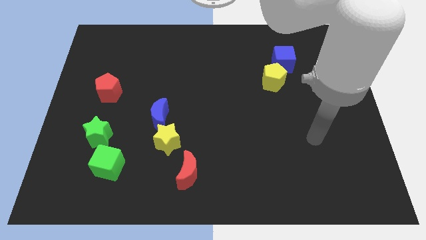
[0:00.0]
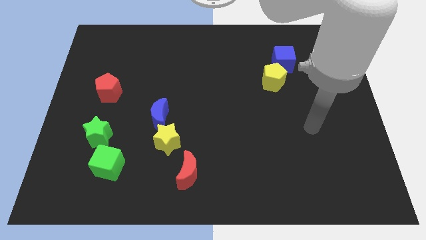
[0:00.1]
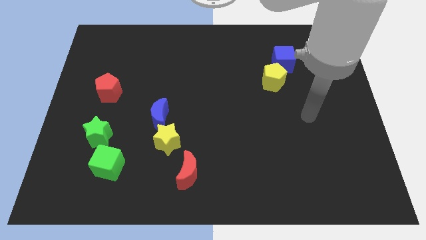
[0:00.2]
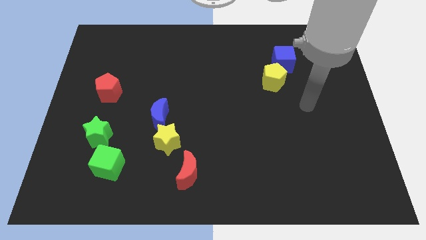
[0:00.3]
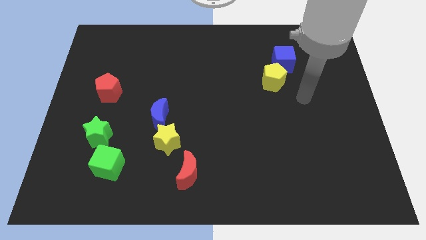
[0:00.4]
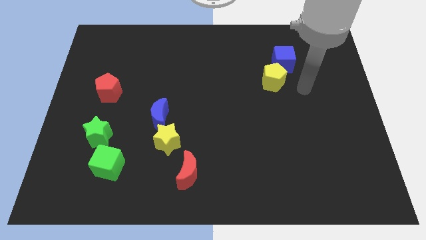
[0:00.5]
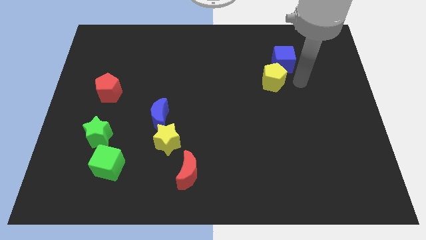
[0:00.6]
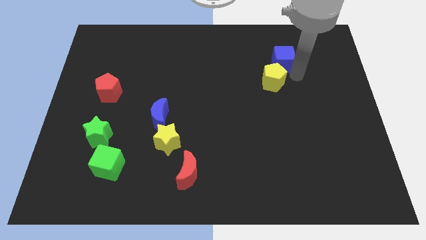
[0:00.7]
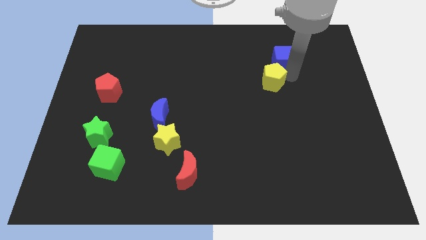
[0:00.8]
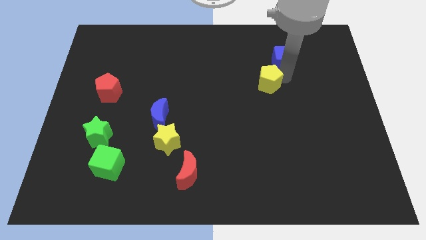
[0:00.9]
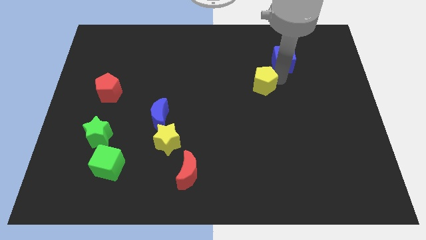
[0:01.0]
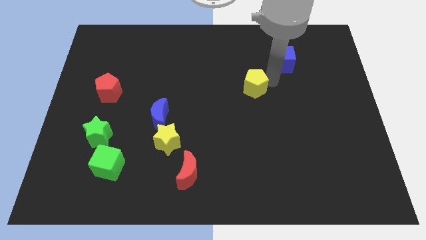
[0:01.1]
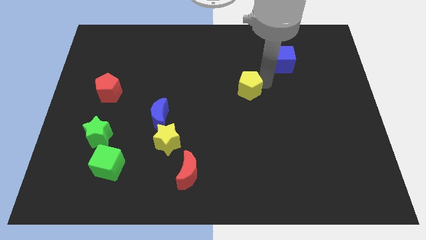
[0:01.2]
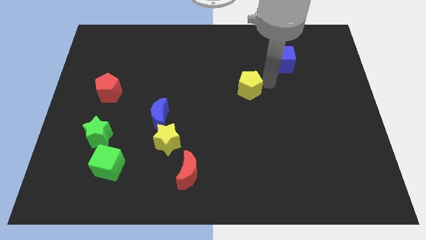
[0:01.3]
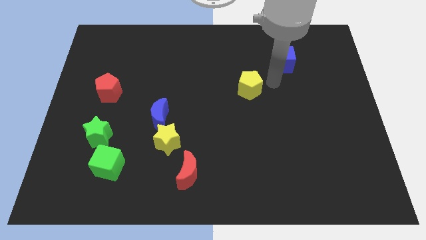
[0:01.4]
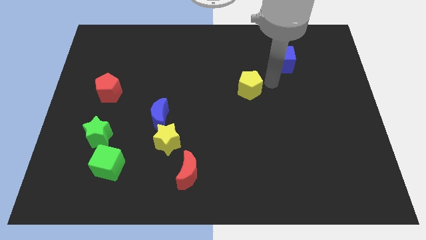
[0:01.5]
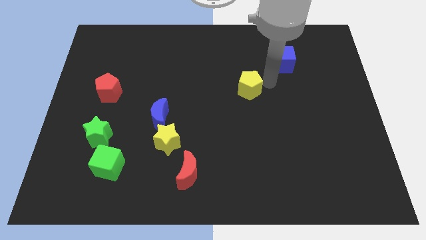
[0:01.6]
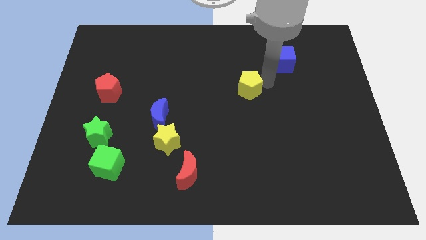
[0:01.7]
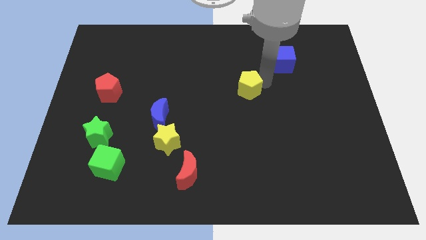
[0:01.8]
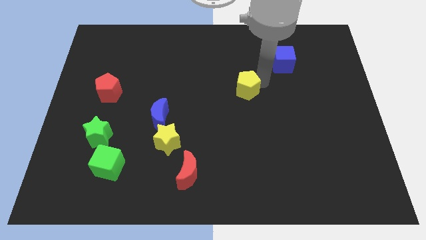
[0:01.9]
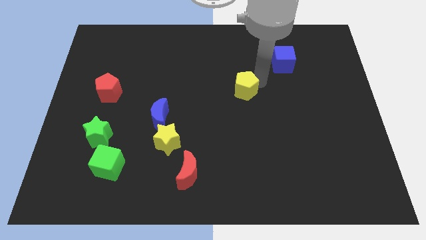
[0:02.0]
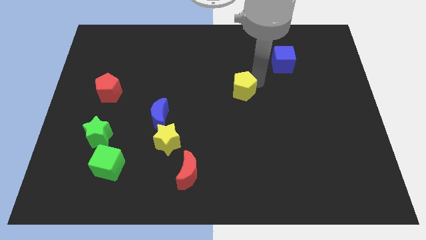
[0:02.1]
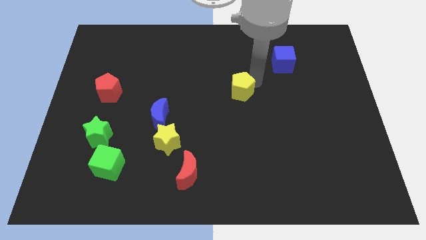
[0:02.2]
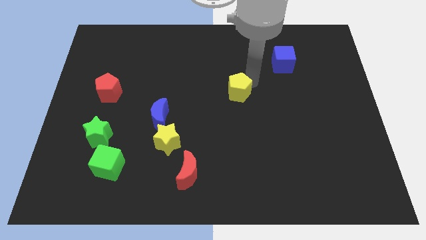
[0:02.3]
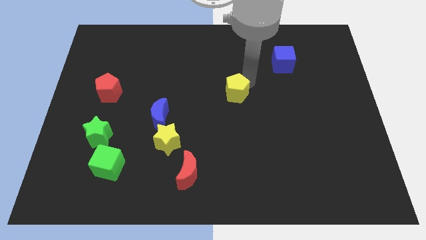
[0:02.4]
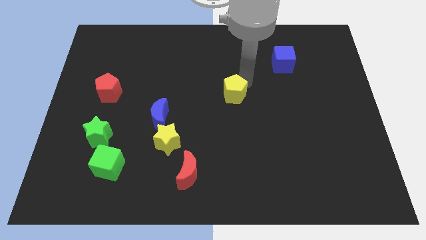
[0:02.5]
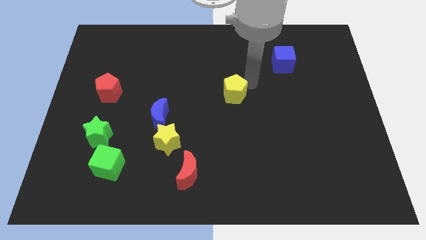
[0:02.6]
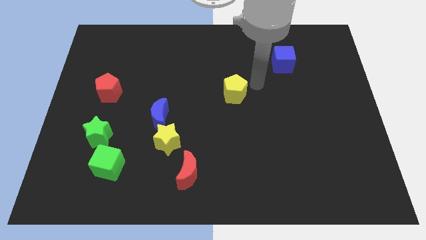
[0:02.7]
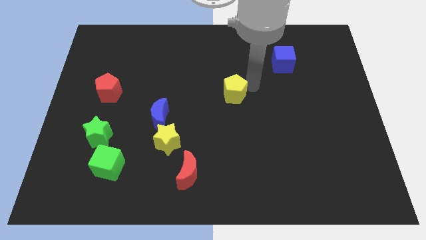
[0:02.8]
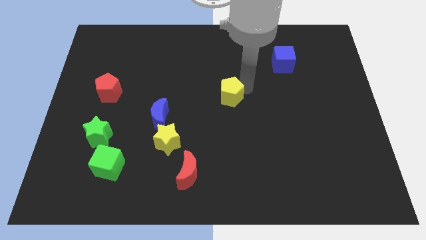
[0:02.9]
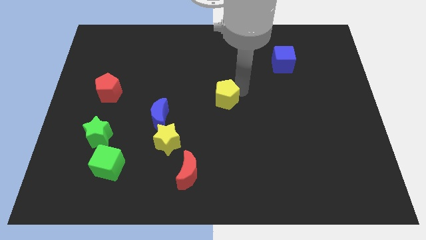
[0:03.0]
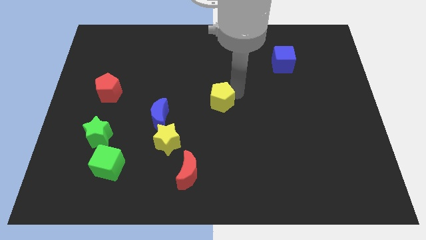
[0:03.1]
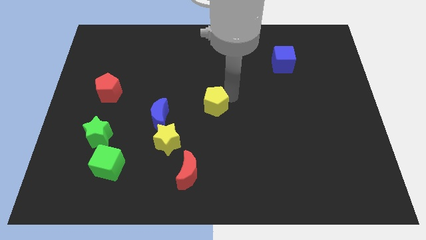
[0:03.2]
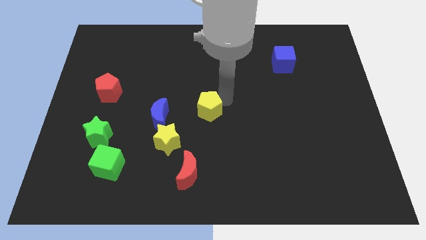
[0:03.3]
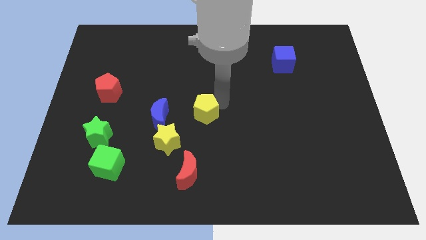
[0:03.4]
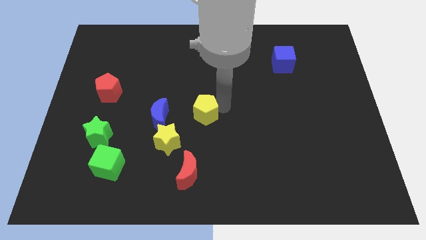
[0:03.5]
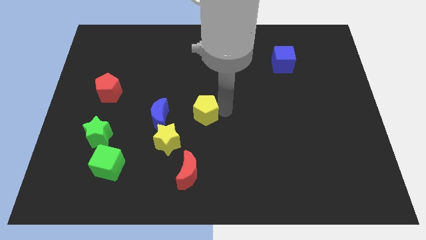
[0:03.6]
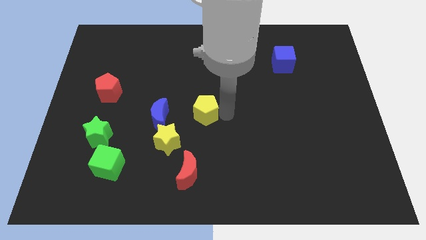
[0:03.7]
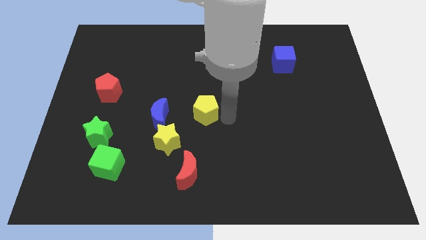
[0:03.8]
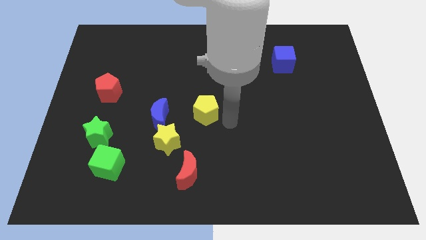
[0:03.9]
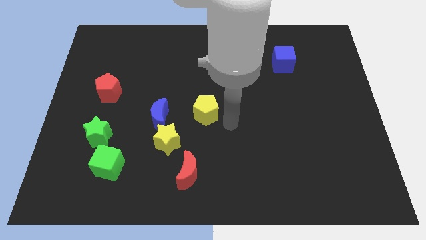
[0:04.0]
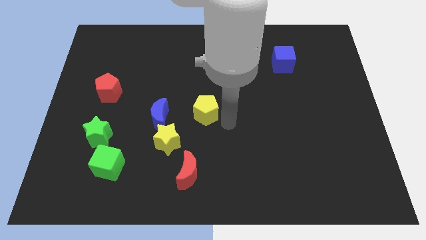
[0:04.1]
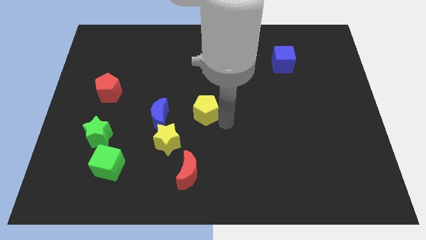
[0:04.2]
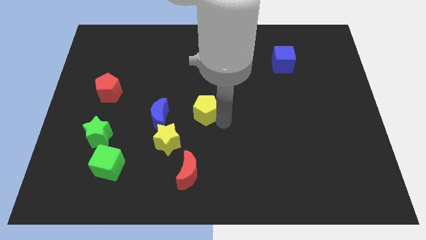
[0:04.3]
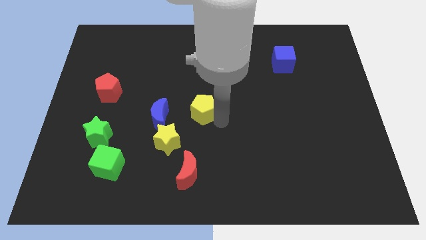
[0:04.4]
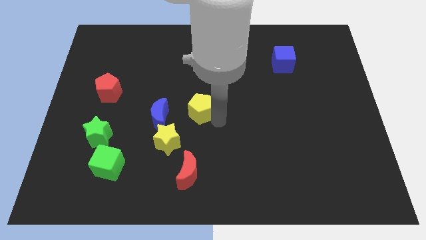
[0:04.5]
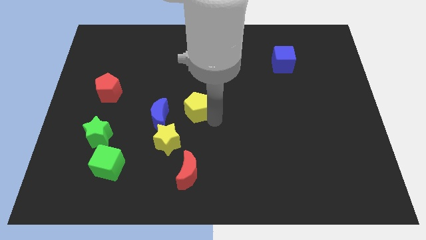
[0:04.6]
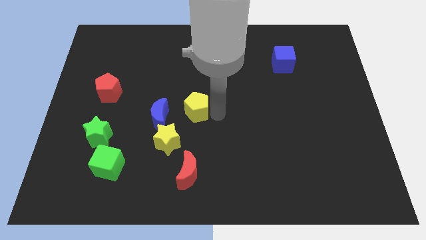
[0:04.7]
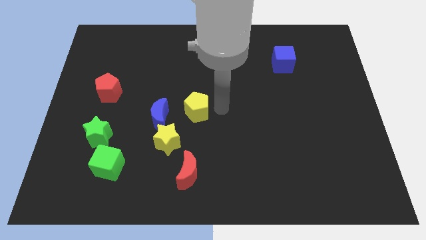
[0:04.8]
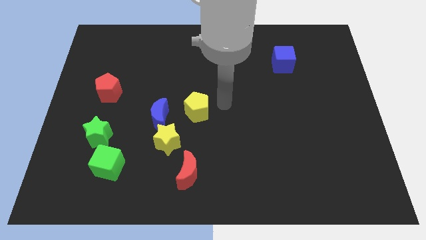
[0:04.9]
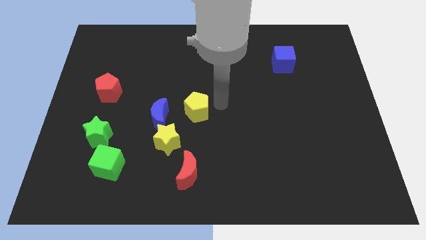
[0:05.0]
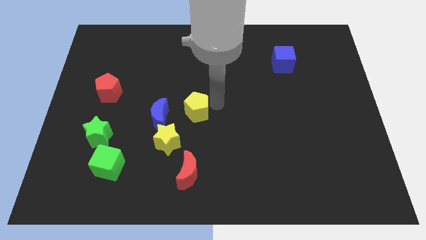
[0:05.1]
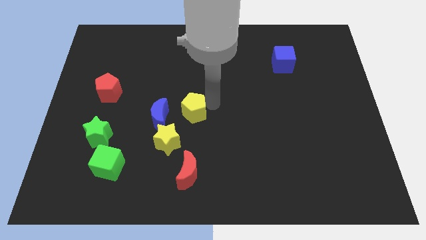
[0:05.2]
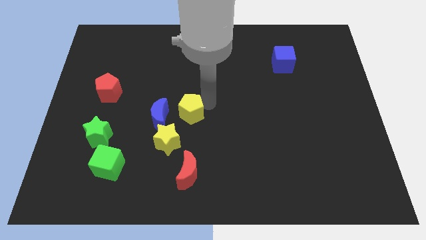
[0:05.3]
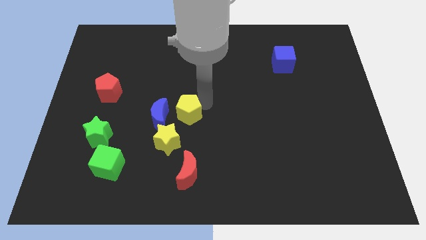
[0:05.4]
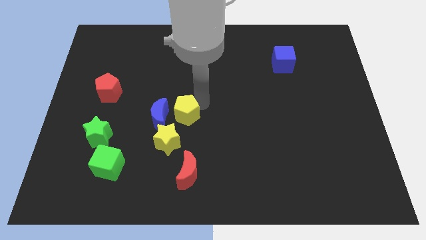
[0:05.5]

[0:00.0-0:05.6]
slide the yellow pentagon towards the blue moon

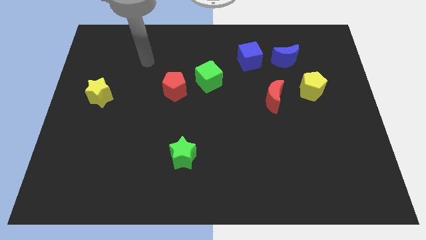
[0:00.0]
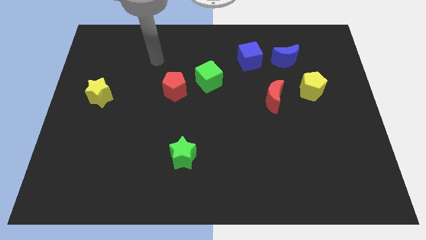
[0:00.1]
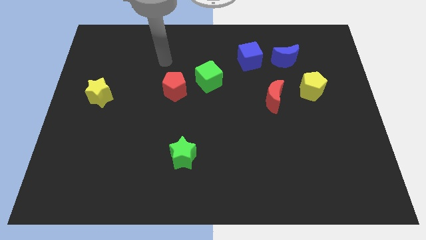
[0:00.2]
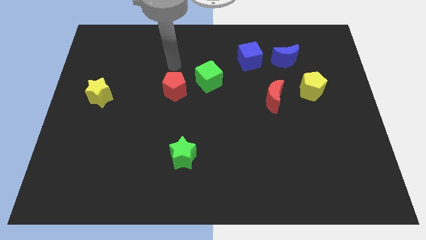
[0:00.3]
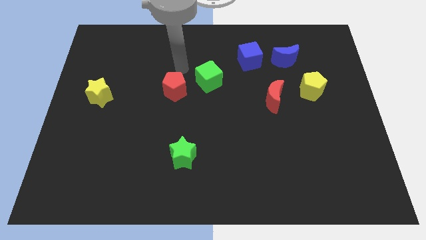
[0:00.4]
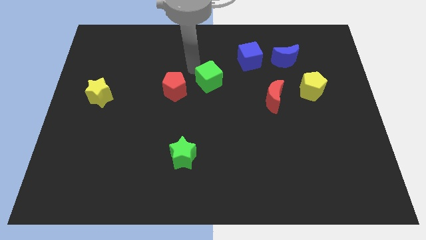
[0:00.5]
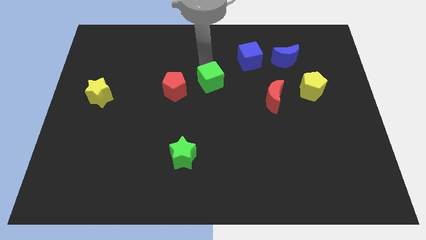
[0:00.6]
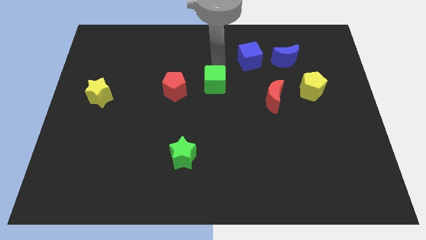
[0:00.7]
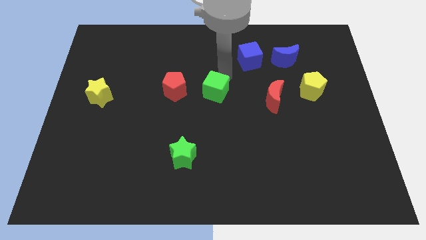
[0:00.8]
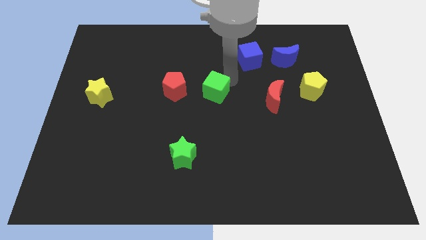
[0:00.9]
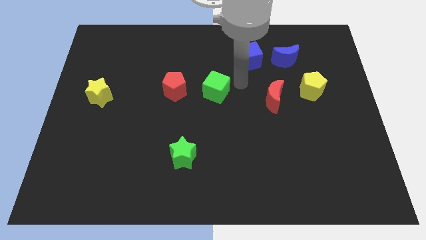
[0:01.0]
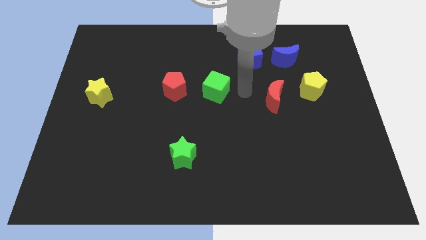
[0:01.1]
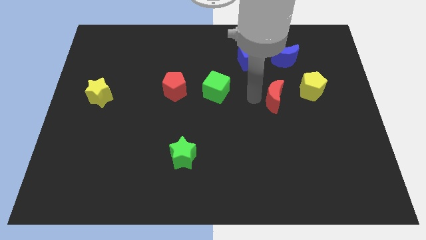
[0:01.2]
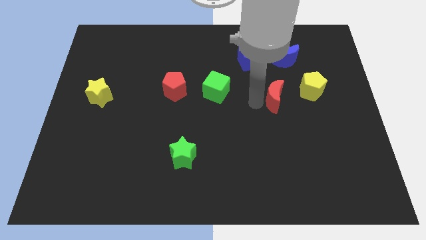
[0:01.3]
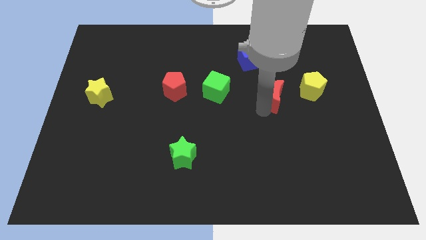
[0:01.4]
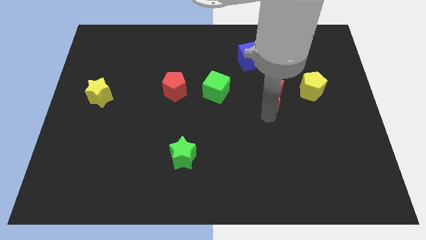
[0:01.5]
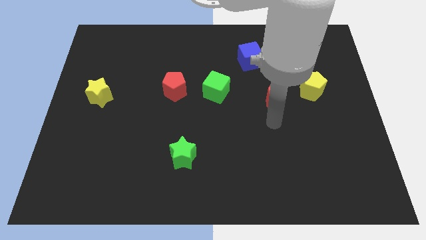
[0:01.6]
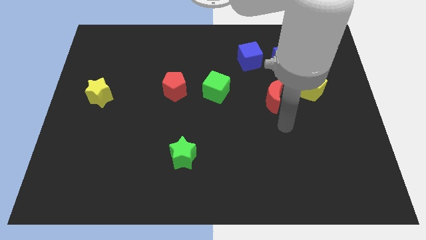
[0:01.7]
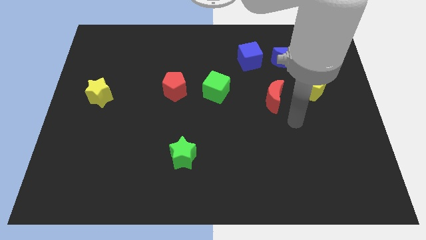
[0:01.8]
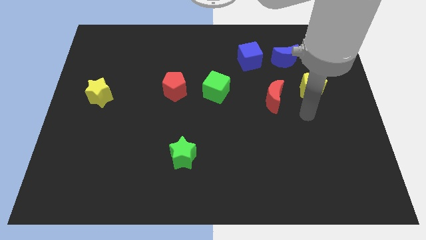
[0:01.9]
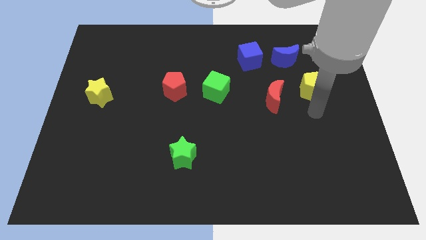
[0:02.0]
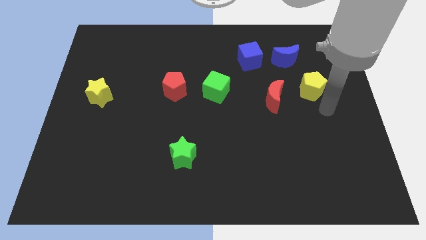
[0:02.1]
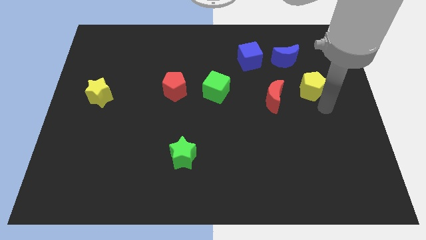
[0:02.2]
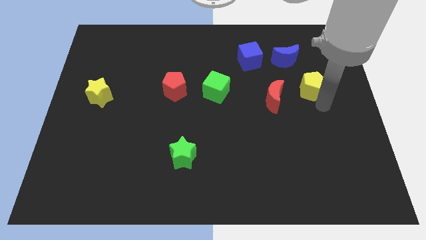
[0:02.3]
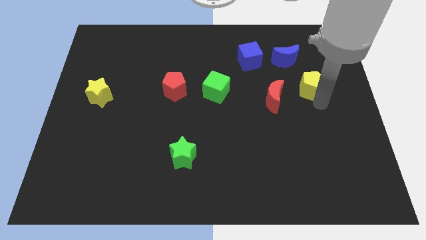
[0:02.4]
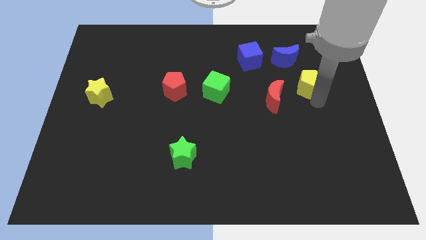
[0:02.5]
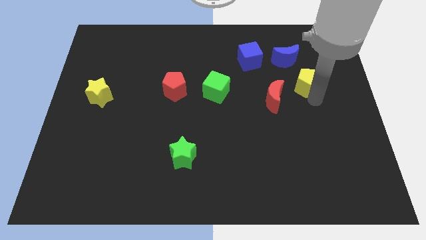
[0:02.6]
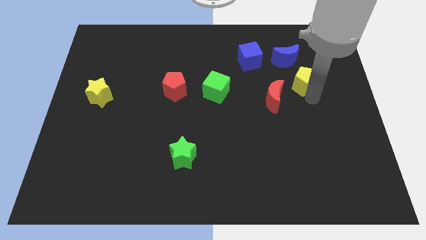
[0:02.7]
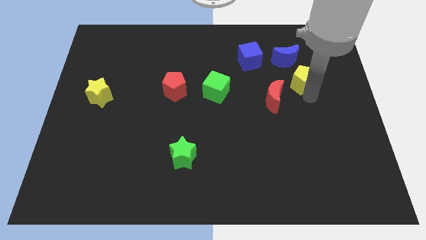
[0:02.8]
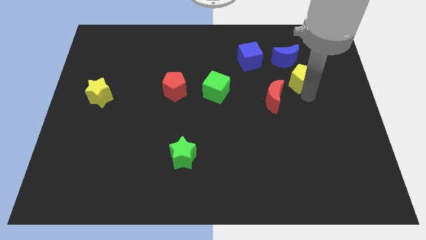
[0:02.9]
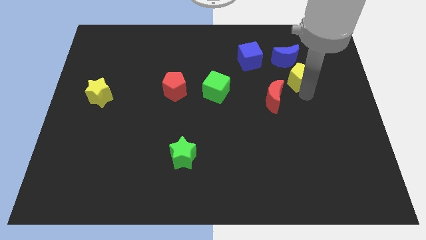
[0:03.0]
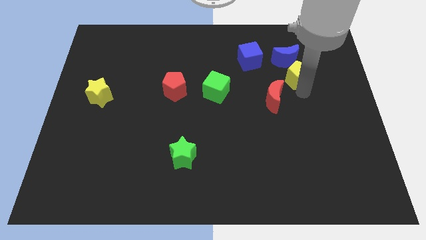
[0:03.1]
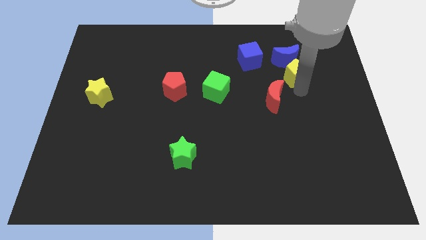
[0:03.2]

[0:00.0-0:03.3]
push the yellow pentagon to the blue moon
